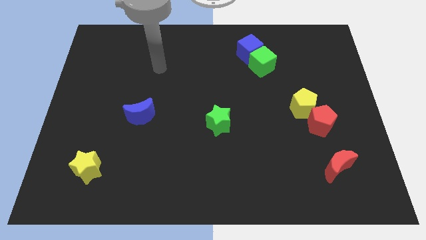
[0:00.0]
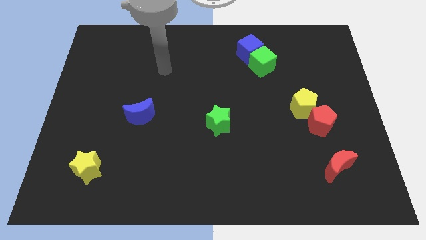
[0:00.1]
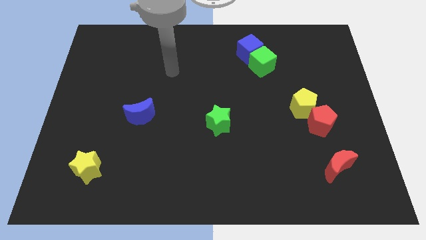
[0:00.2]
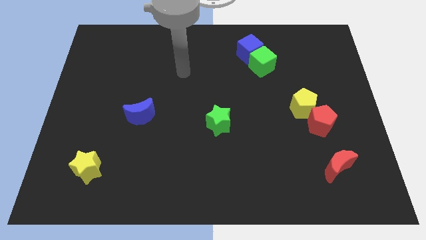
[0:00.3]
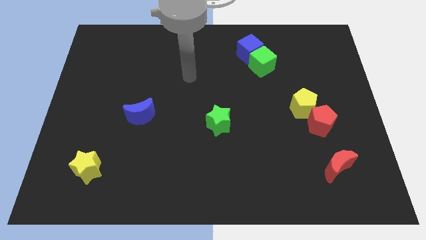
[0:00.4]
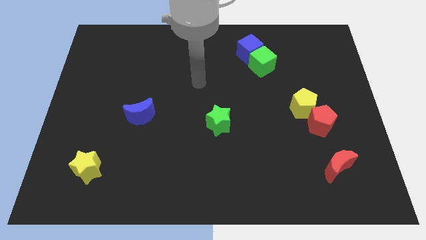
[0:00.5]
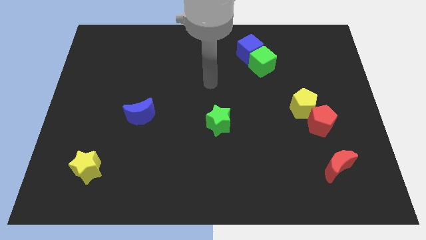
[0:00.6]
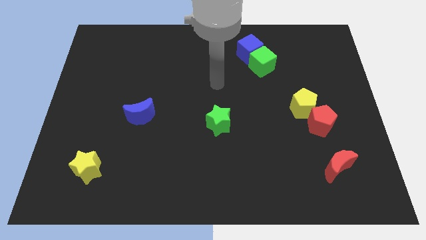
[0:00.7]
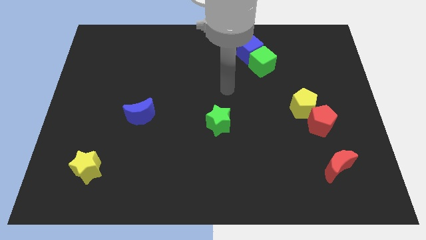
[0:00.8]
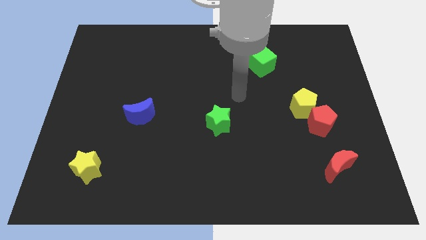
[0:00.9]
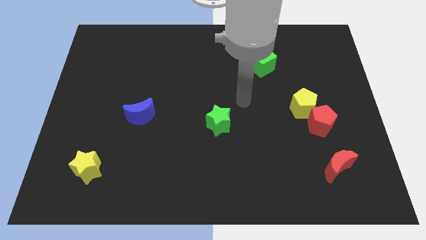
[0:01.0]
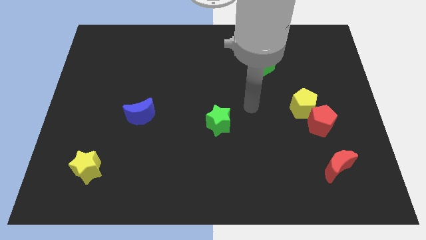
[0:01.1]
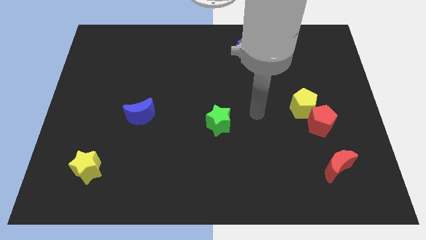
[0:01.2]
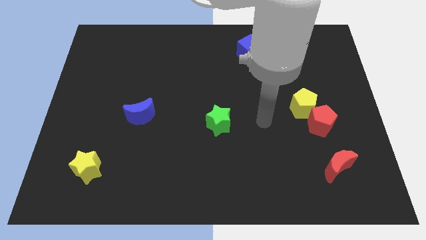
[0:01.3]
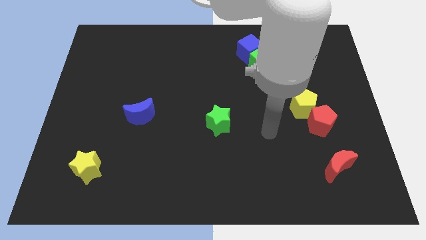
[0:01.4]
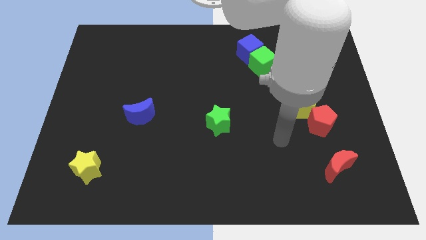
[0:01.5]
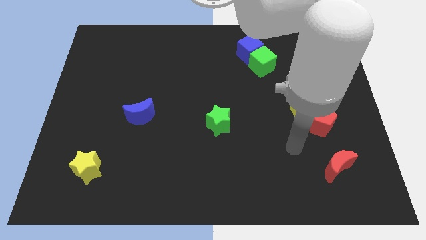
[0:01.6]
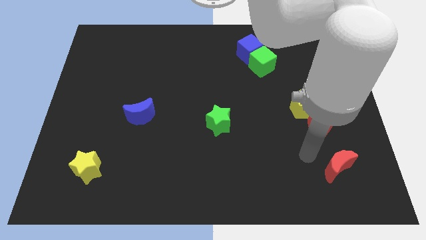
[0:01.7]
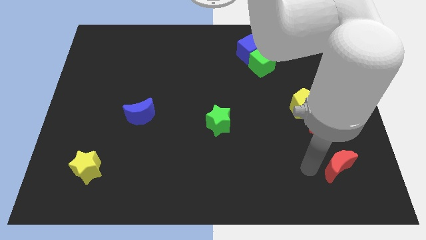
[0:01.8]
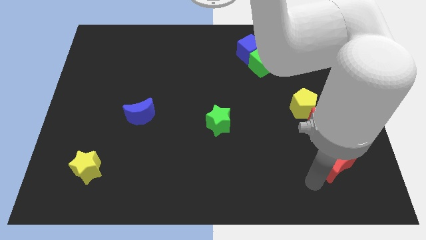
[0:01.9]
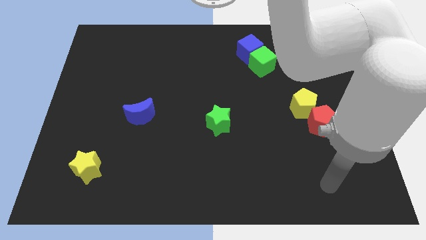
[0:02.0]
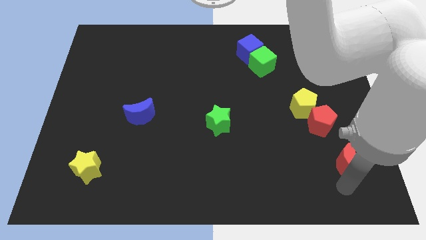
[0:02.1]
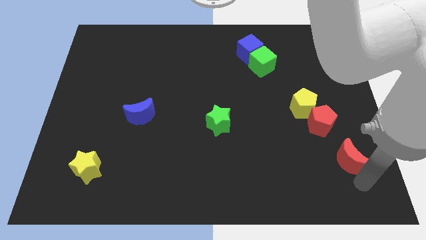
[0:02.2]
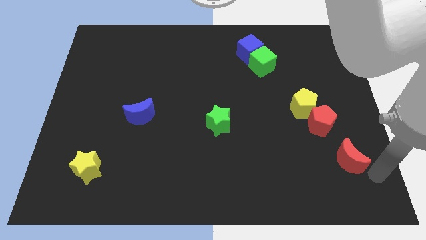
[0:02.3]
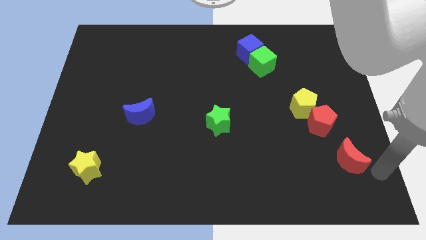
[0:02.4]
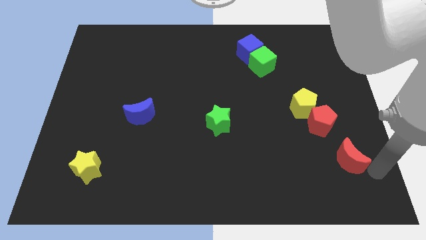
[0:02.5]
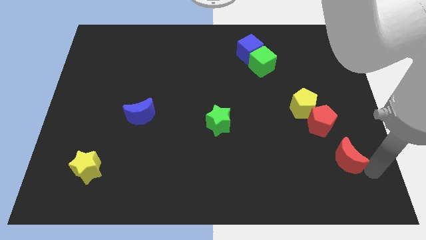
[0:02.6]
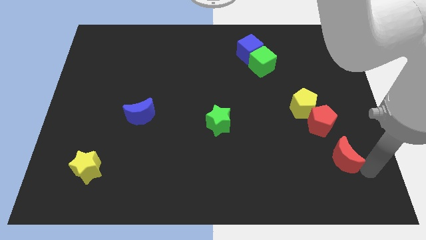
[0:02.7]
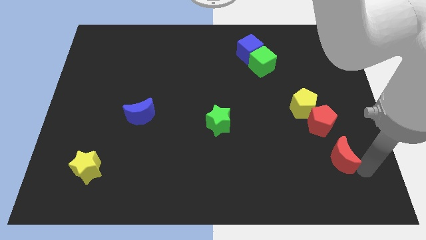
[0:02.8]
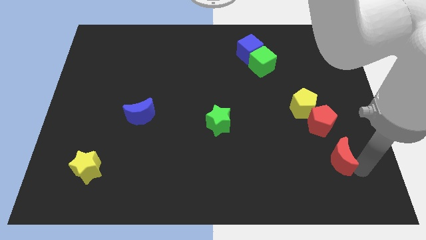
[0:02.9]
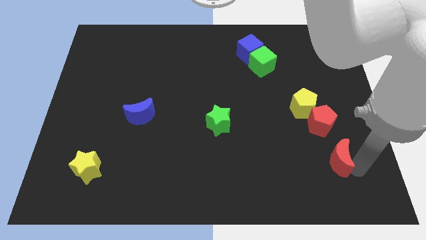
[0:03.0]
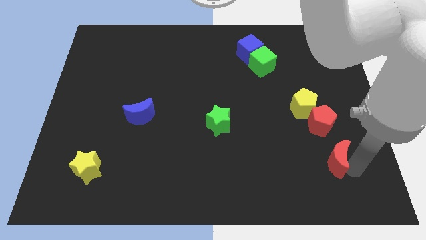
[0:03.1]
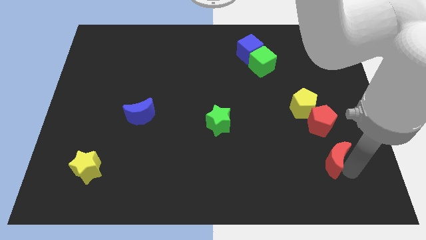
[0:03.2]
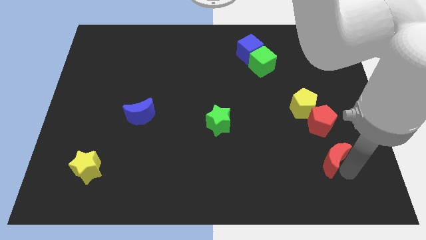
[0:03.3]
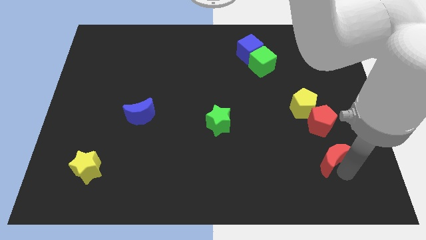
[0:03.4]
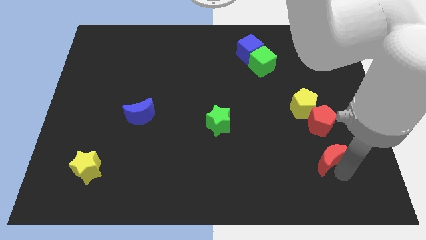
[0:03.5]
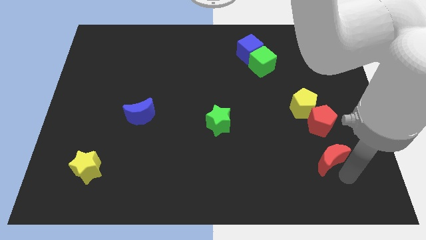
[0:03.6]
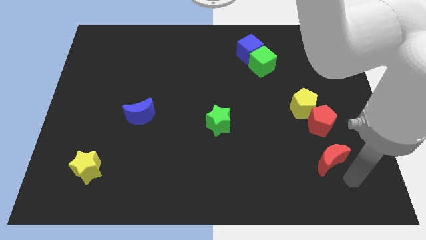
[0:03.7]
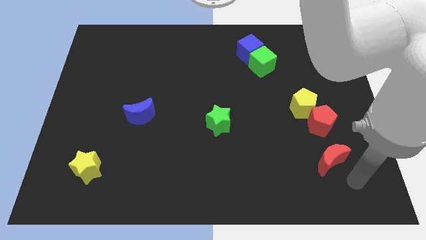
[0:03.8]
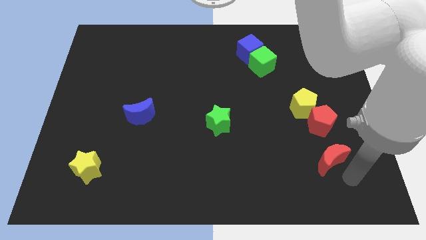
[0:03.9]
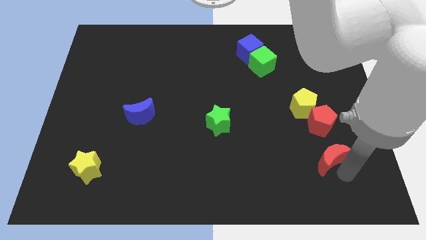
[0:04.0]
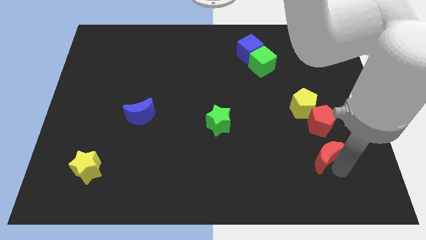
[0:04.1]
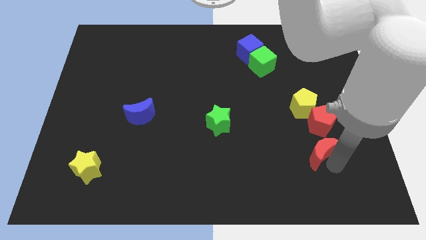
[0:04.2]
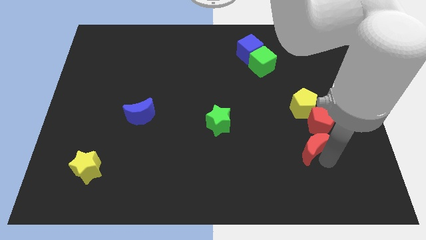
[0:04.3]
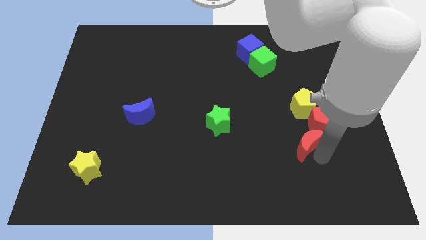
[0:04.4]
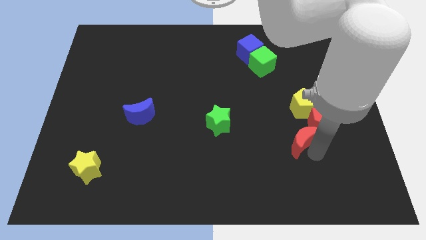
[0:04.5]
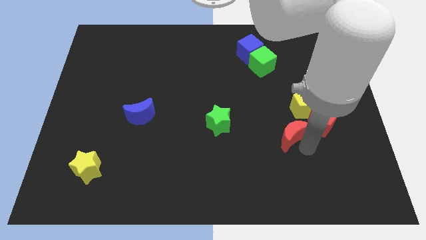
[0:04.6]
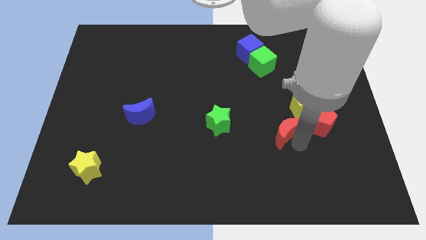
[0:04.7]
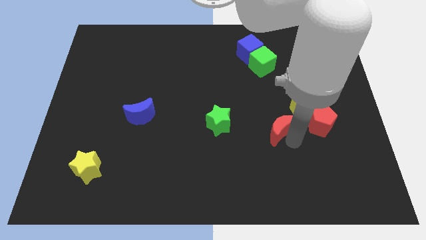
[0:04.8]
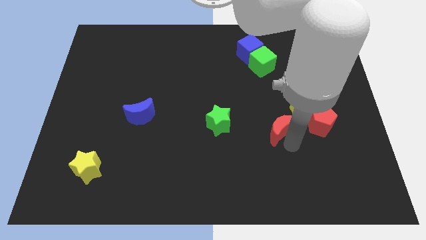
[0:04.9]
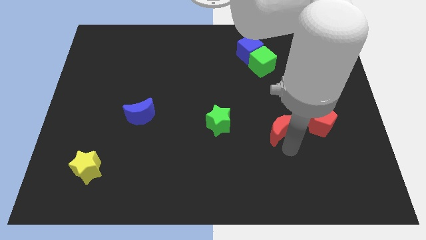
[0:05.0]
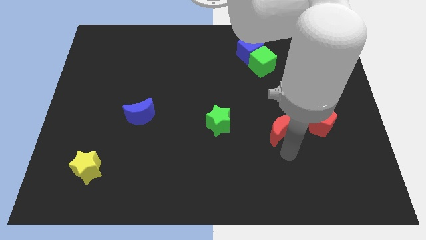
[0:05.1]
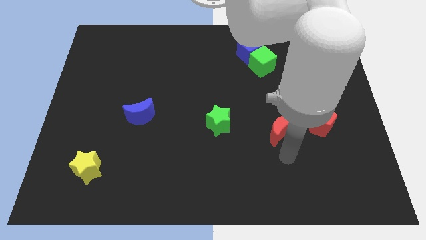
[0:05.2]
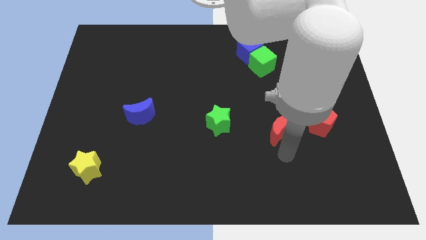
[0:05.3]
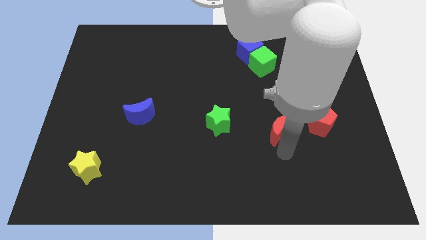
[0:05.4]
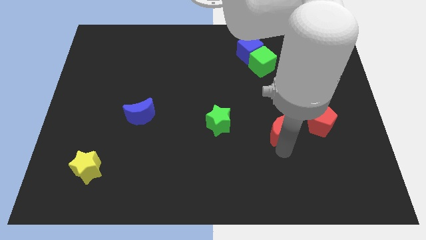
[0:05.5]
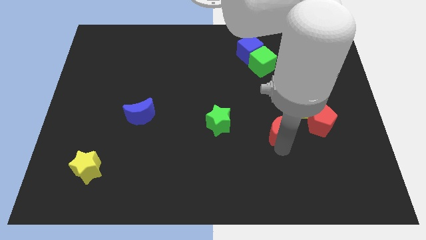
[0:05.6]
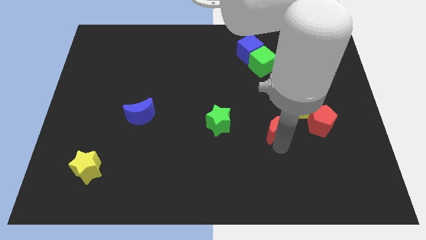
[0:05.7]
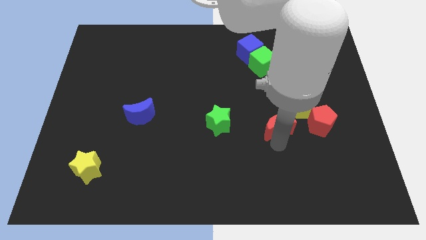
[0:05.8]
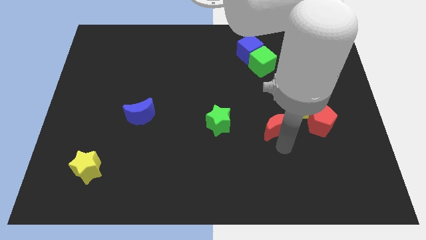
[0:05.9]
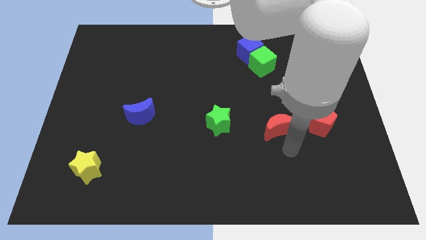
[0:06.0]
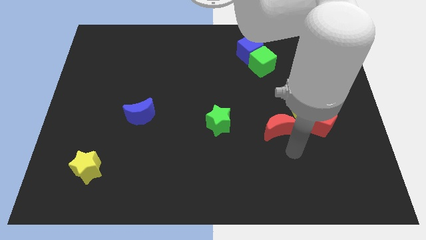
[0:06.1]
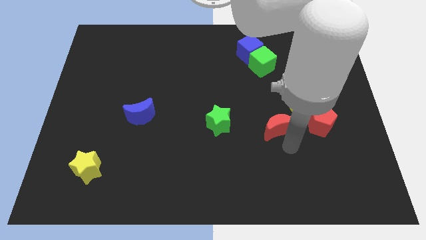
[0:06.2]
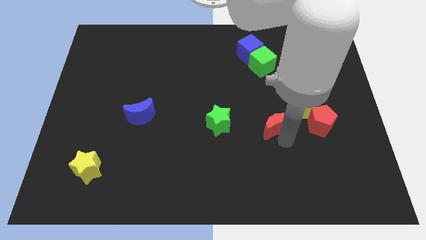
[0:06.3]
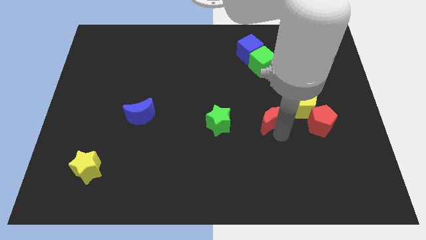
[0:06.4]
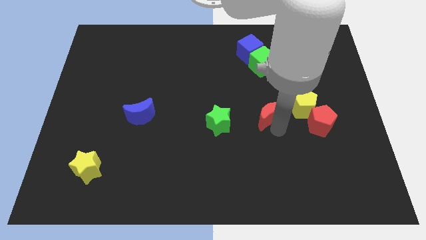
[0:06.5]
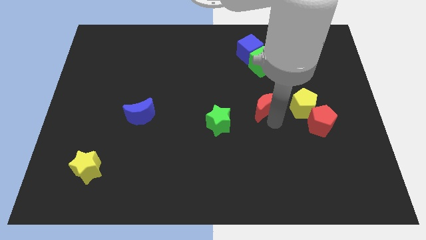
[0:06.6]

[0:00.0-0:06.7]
slide the red moon upwards and to the left

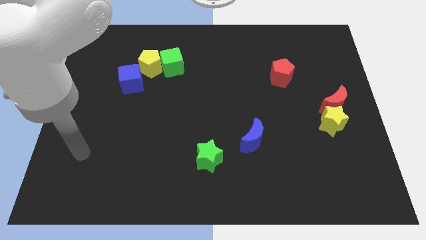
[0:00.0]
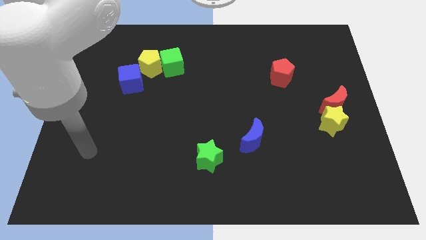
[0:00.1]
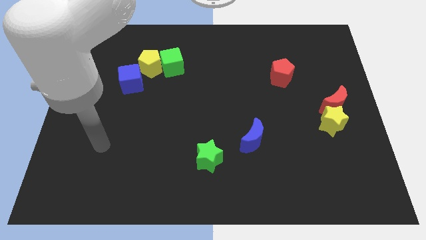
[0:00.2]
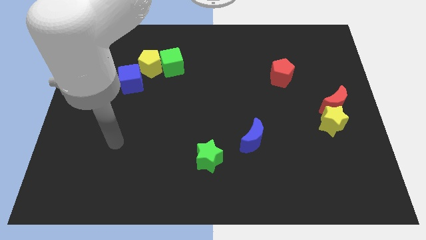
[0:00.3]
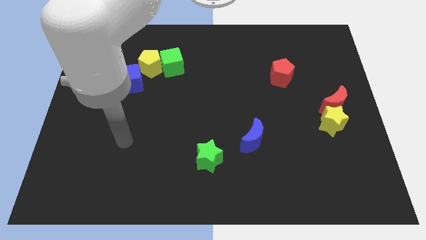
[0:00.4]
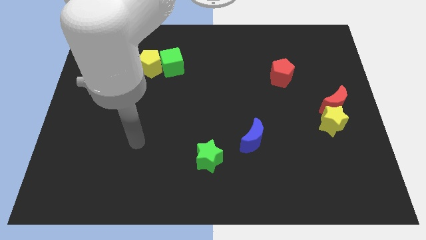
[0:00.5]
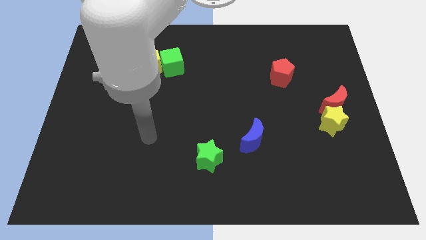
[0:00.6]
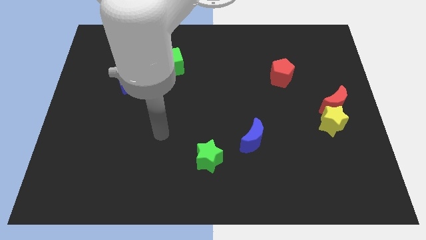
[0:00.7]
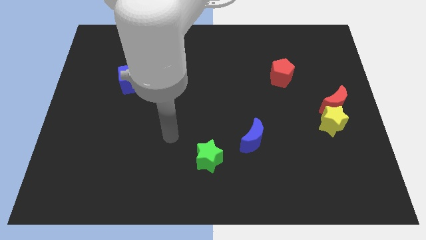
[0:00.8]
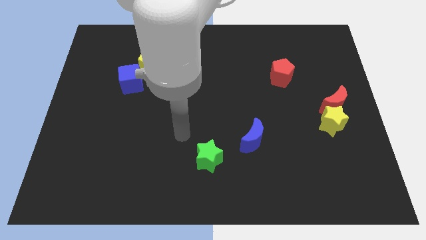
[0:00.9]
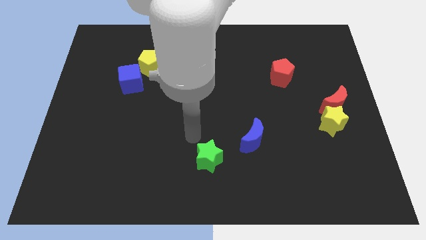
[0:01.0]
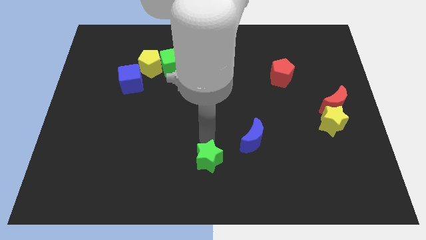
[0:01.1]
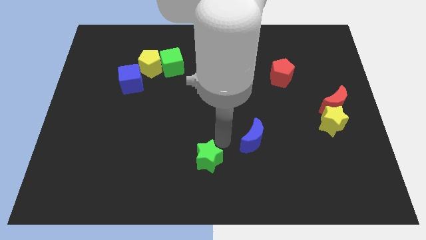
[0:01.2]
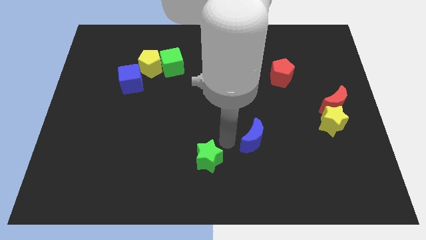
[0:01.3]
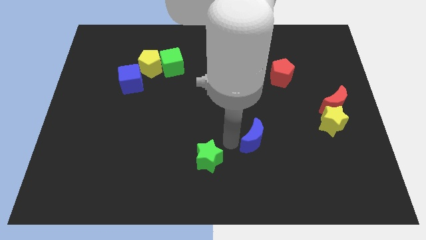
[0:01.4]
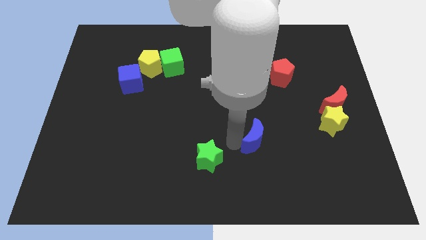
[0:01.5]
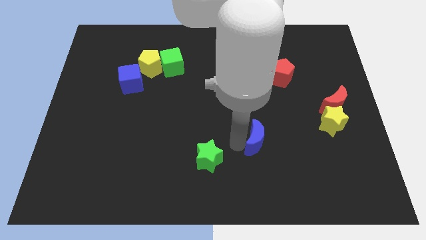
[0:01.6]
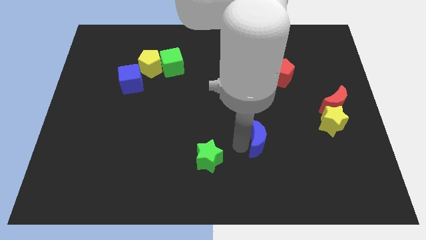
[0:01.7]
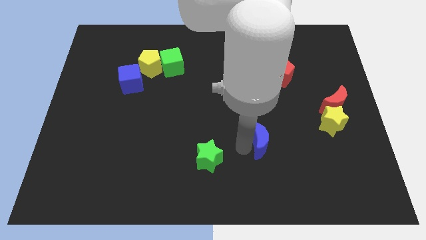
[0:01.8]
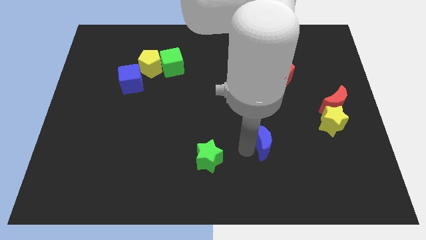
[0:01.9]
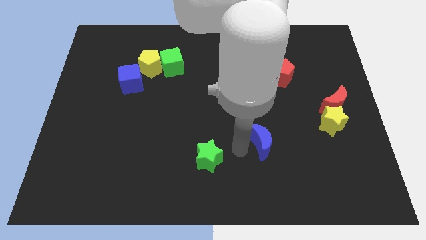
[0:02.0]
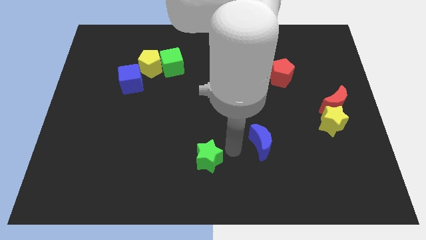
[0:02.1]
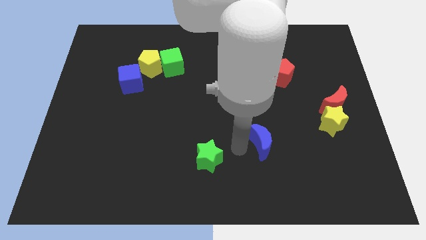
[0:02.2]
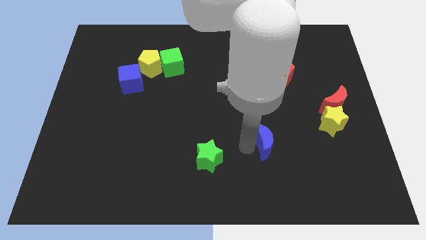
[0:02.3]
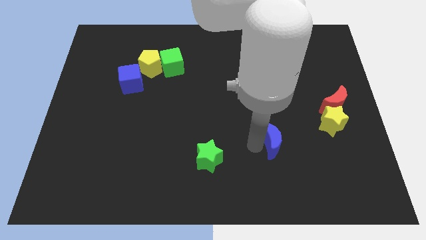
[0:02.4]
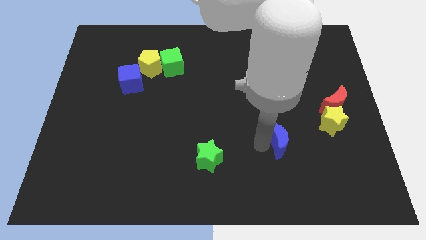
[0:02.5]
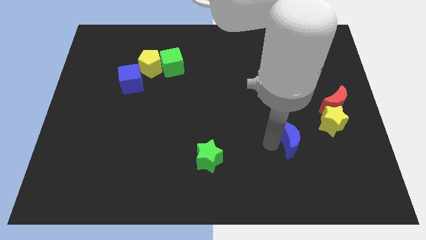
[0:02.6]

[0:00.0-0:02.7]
slightly move the blue moon right
